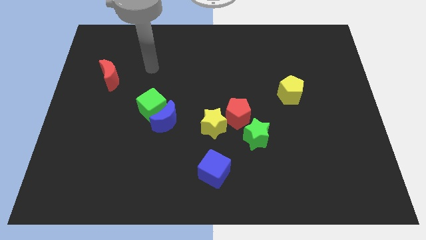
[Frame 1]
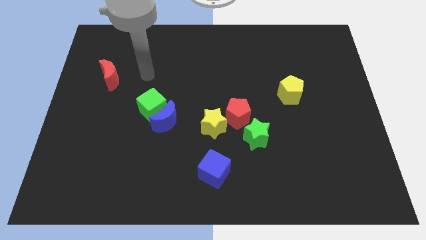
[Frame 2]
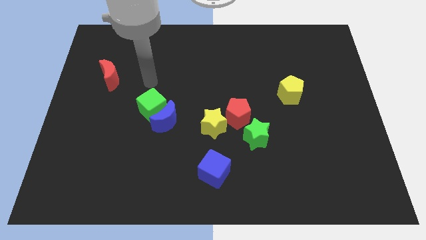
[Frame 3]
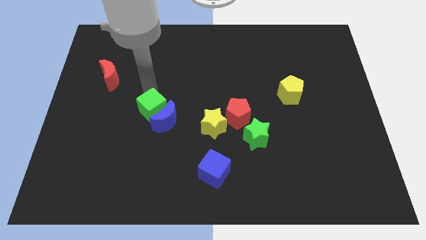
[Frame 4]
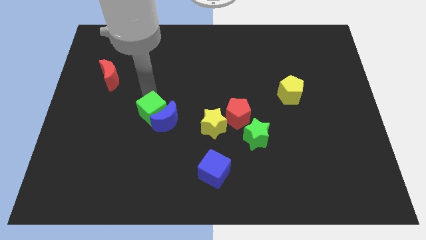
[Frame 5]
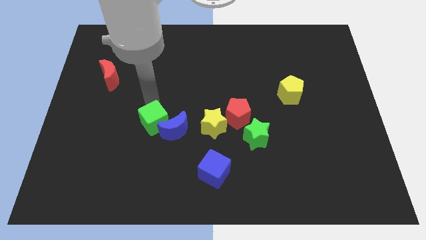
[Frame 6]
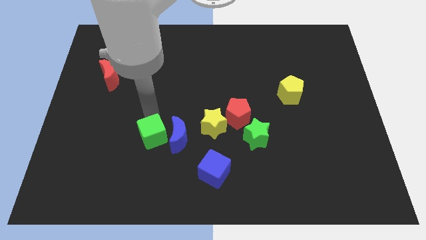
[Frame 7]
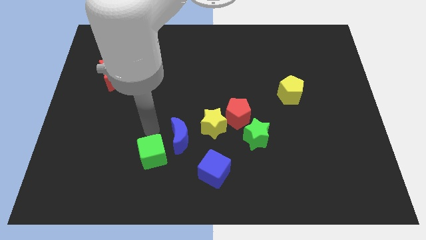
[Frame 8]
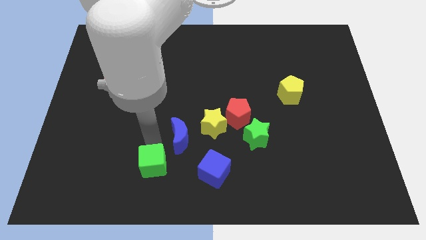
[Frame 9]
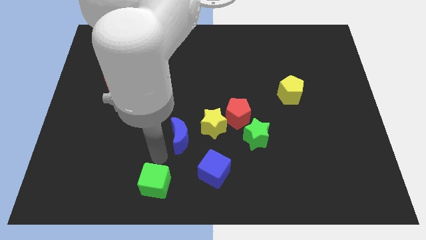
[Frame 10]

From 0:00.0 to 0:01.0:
pull the blue moon apart from the green cube

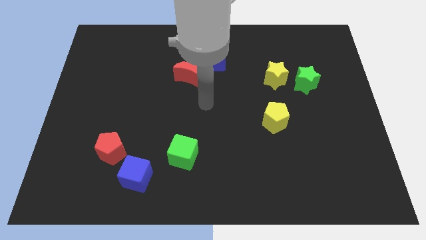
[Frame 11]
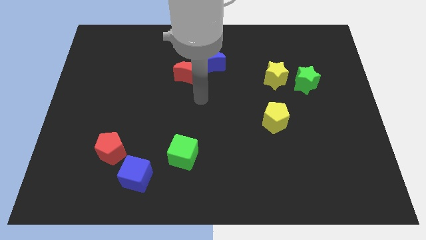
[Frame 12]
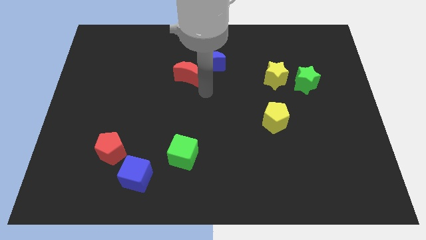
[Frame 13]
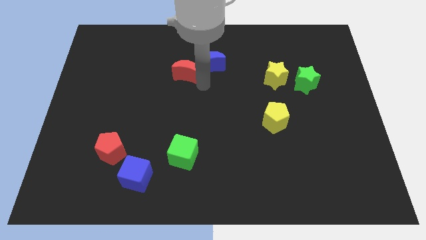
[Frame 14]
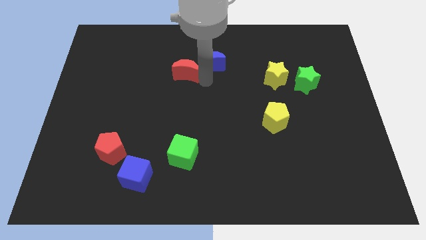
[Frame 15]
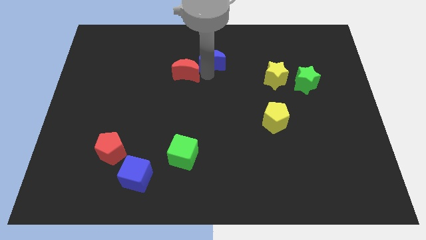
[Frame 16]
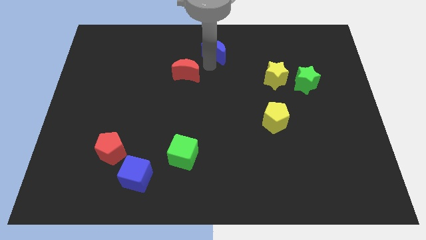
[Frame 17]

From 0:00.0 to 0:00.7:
pull the red moon apart from the blue moon

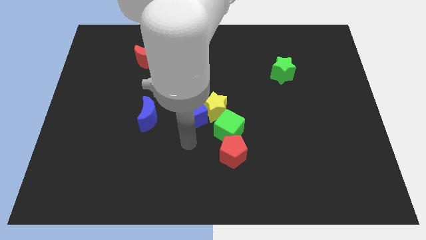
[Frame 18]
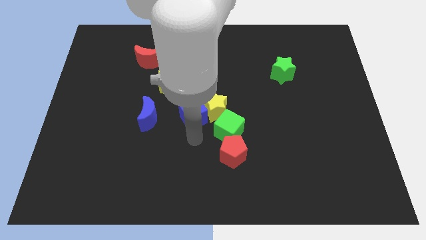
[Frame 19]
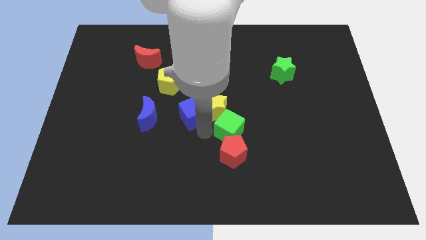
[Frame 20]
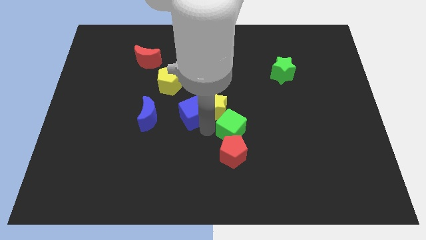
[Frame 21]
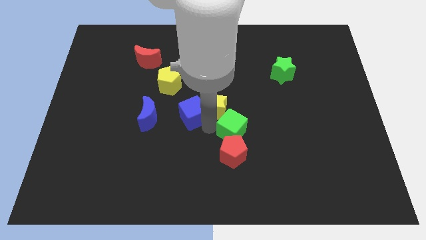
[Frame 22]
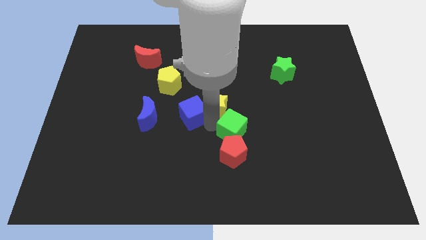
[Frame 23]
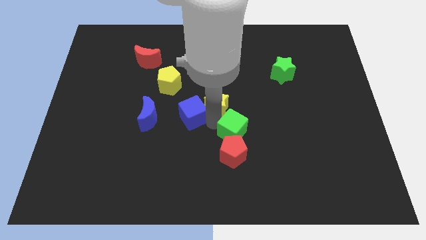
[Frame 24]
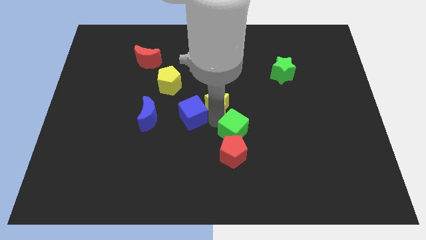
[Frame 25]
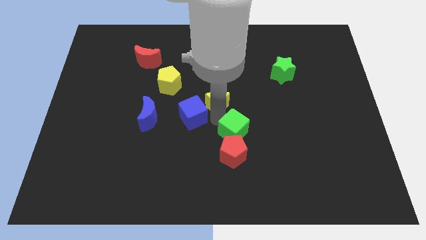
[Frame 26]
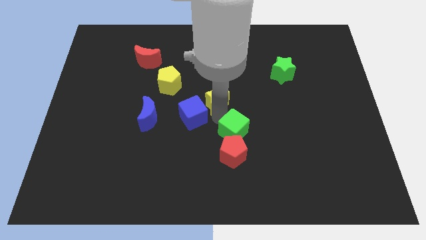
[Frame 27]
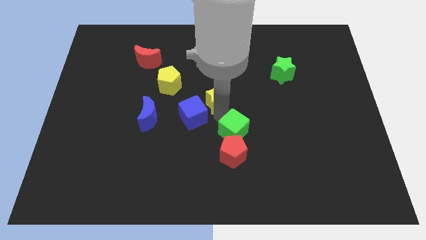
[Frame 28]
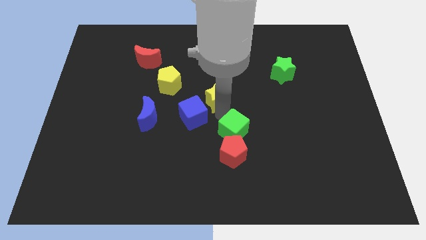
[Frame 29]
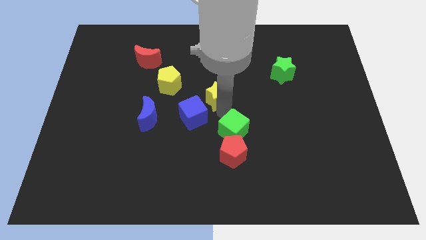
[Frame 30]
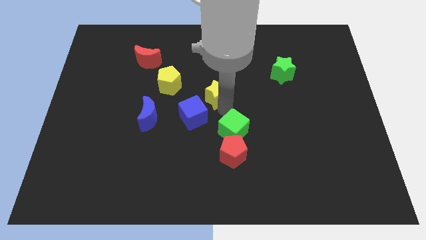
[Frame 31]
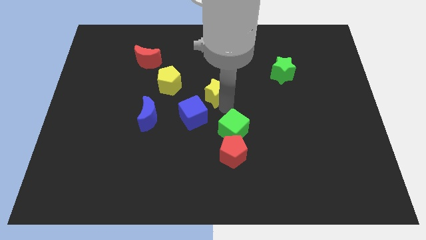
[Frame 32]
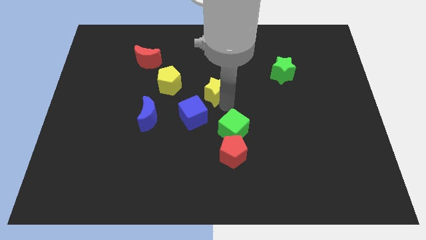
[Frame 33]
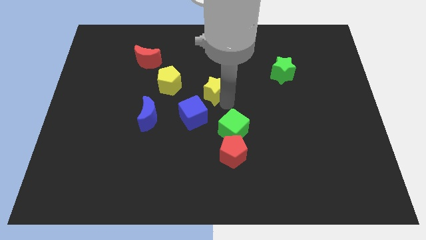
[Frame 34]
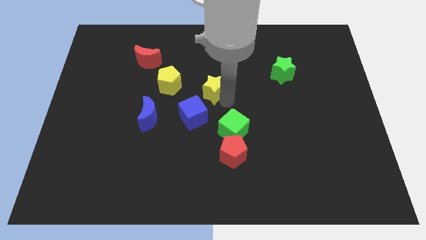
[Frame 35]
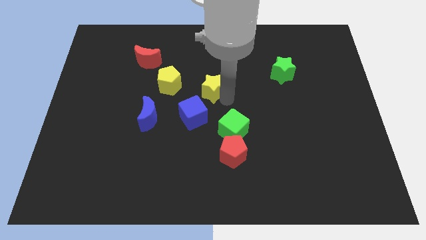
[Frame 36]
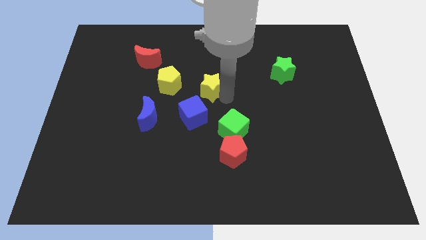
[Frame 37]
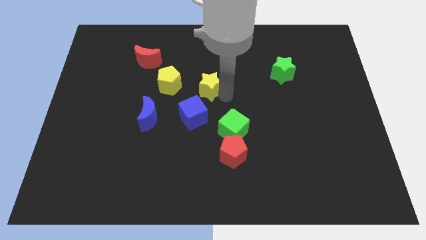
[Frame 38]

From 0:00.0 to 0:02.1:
separate the yellow star from the blue cube and green cube

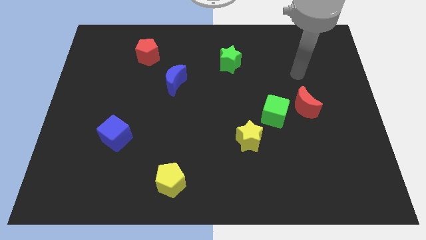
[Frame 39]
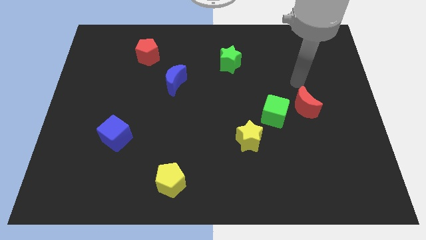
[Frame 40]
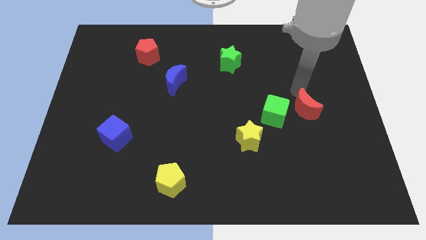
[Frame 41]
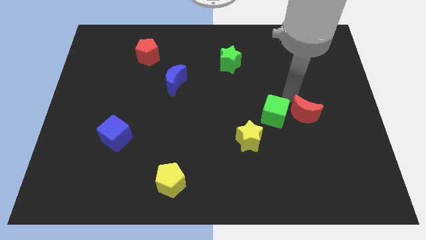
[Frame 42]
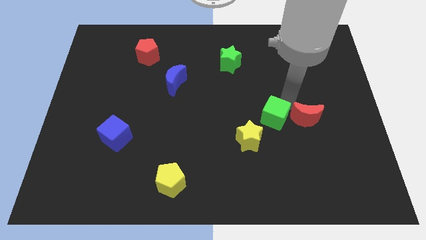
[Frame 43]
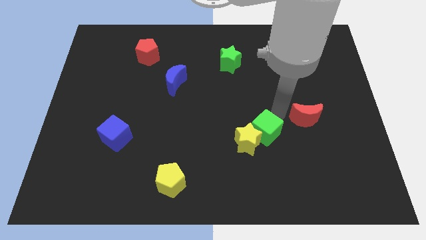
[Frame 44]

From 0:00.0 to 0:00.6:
separate the red moon from the green cube

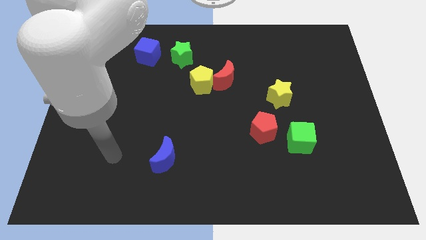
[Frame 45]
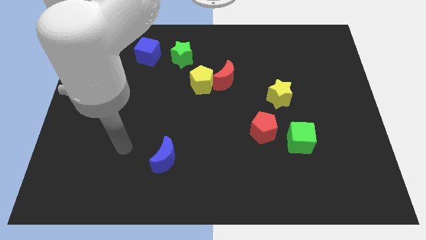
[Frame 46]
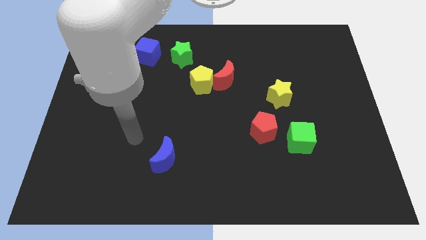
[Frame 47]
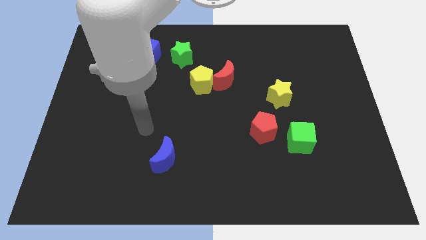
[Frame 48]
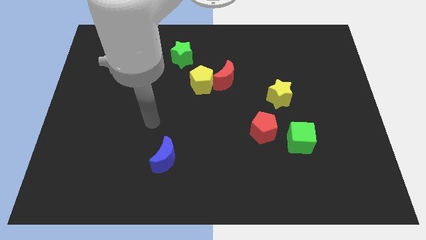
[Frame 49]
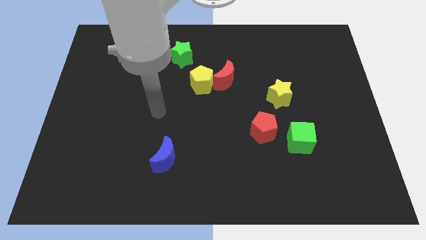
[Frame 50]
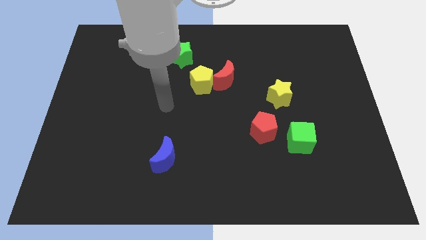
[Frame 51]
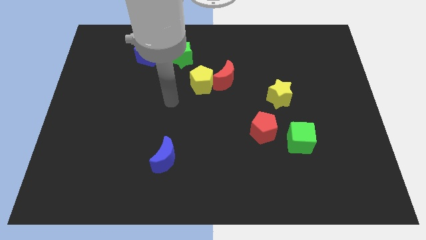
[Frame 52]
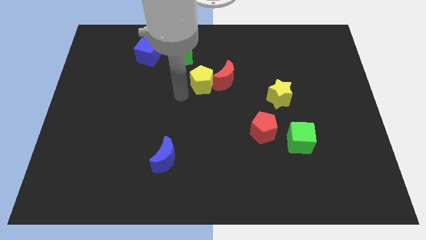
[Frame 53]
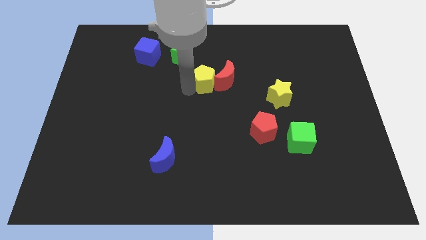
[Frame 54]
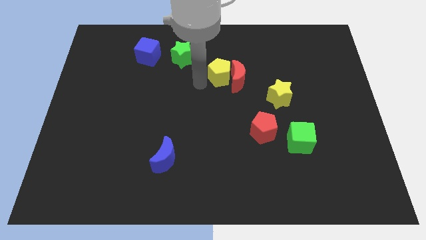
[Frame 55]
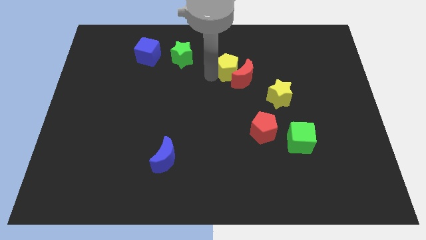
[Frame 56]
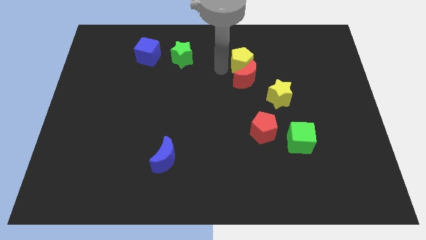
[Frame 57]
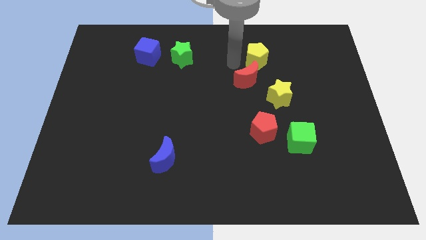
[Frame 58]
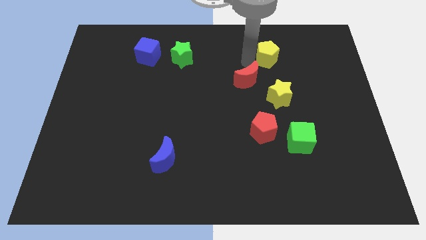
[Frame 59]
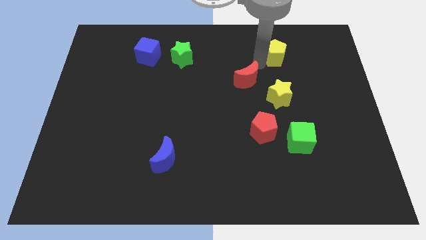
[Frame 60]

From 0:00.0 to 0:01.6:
move the red moon away from the yellow pentagon

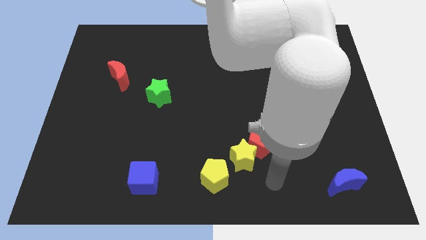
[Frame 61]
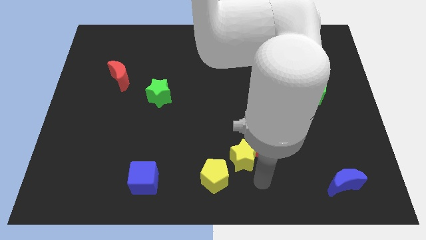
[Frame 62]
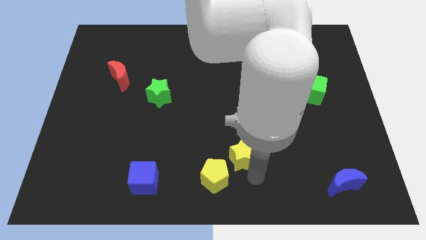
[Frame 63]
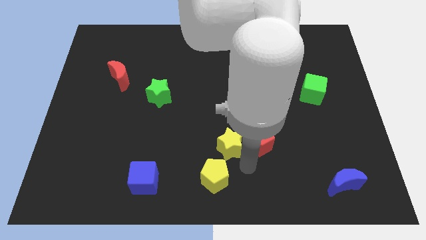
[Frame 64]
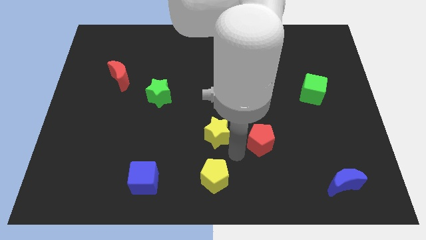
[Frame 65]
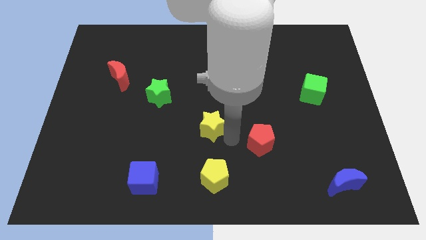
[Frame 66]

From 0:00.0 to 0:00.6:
move the red pentagon away from the yellow star

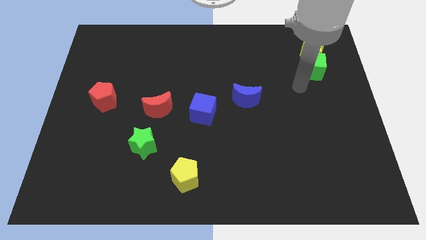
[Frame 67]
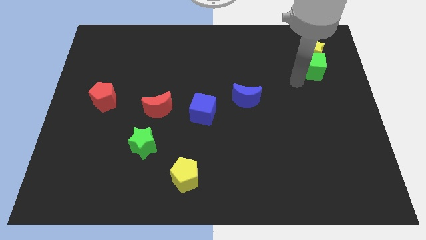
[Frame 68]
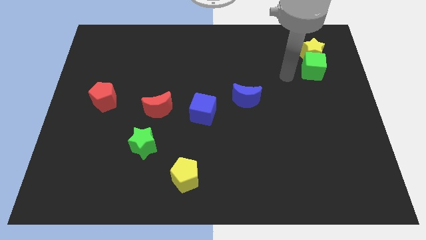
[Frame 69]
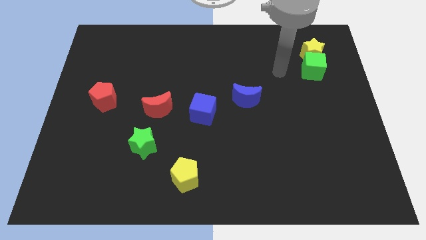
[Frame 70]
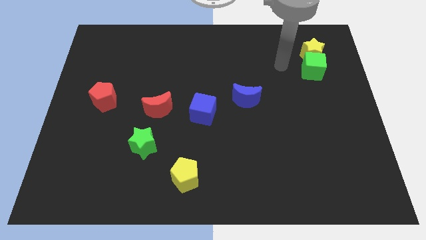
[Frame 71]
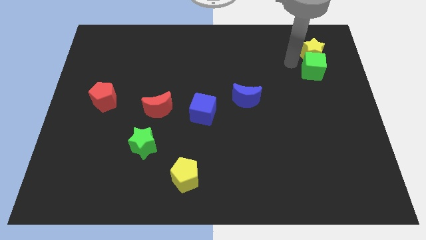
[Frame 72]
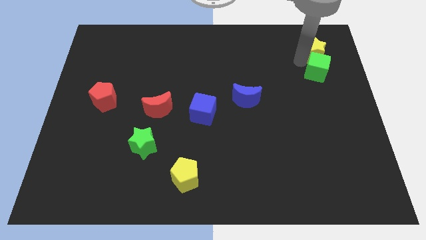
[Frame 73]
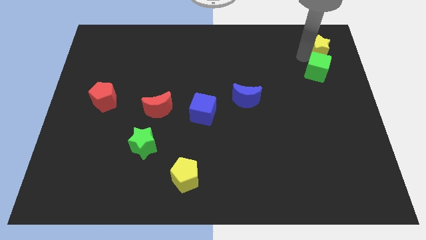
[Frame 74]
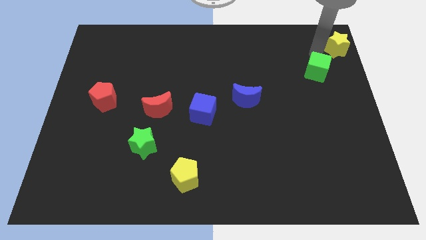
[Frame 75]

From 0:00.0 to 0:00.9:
move the green cube away from the yellow star

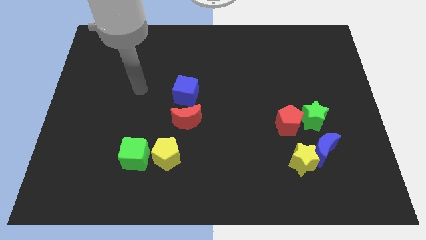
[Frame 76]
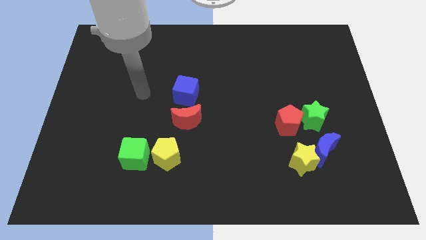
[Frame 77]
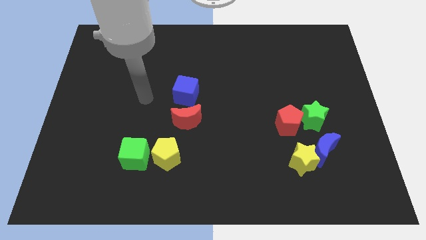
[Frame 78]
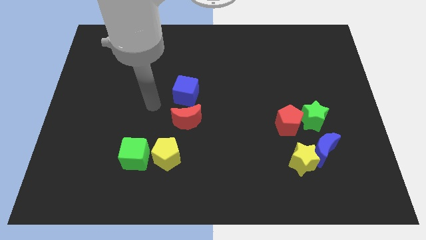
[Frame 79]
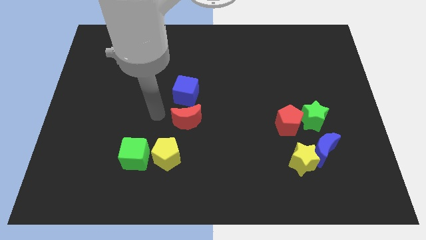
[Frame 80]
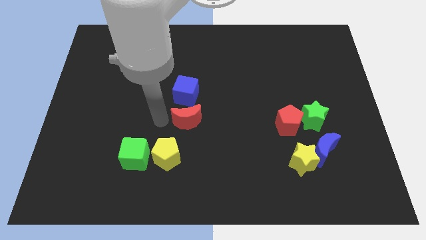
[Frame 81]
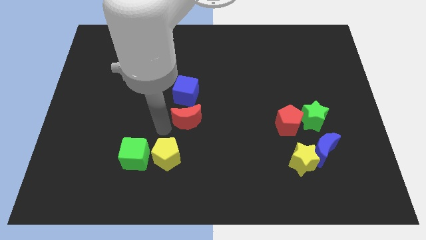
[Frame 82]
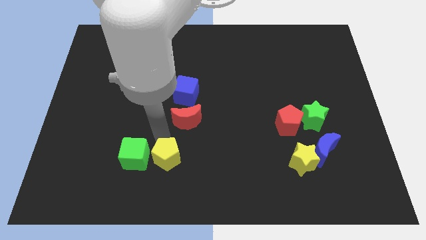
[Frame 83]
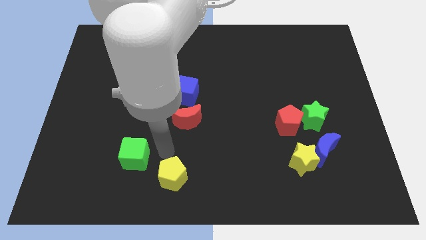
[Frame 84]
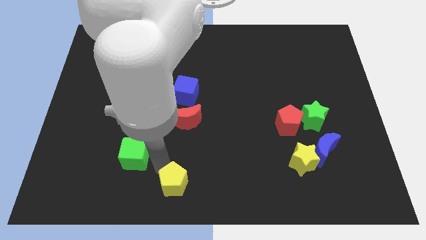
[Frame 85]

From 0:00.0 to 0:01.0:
separate the green cube from the yellow pentagon

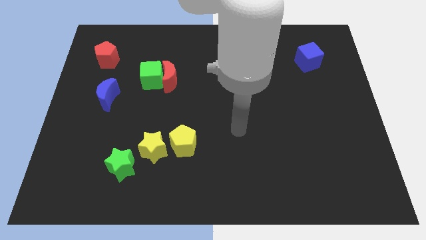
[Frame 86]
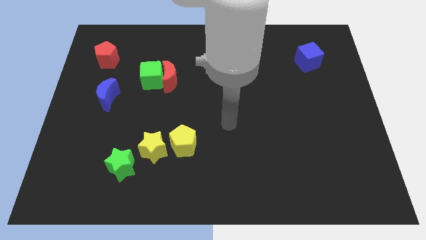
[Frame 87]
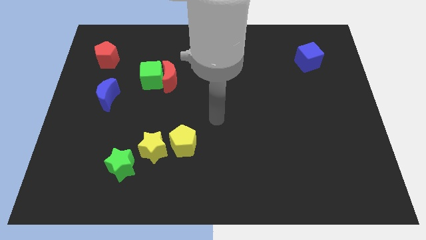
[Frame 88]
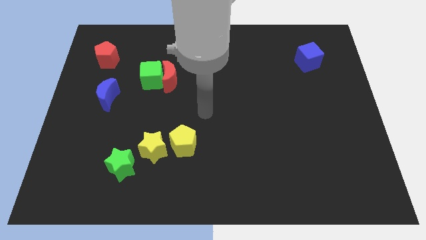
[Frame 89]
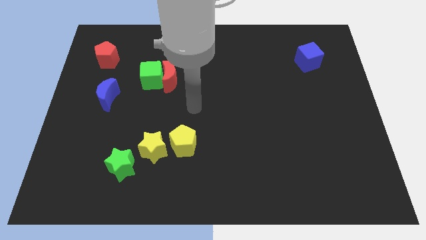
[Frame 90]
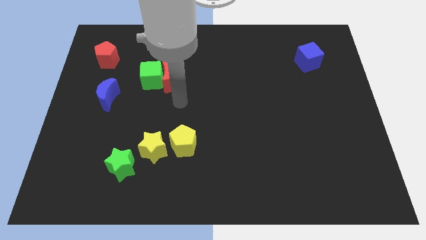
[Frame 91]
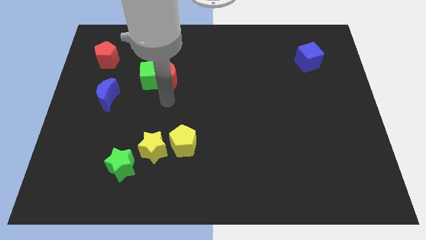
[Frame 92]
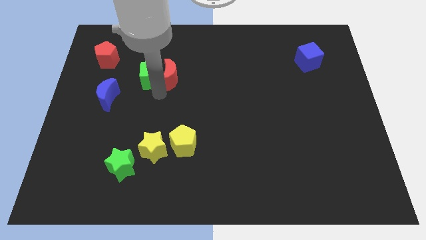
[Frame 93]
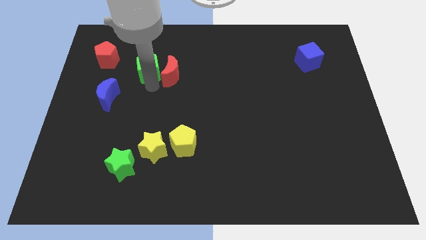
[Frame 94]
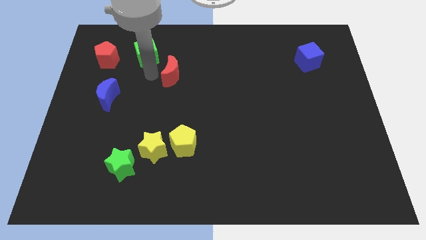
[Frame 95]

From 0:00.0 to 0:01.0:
move the red moon away from the green cube
